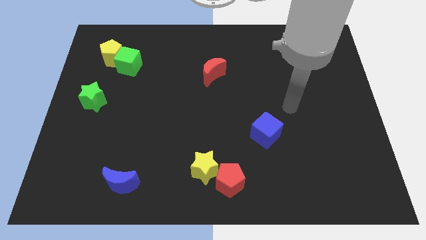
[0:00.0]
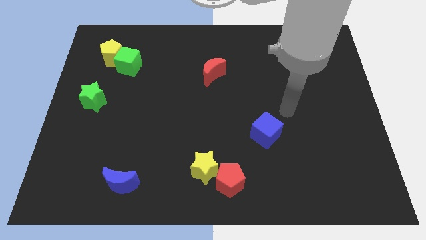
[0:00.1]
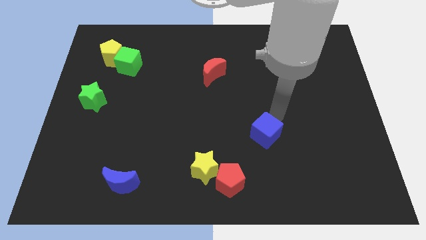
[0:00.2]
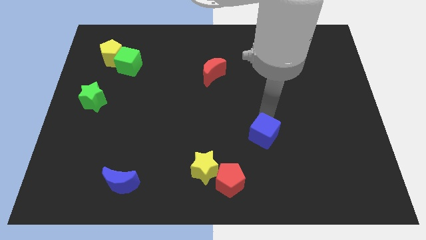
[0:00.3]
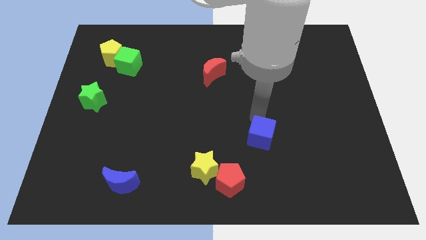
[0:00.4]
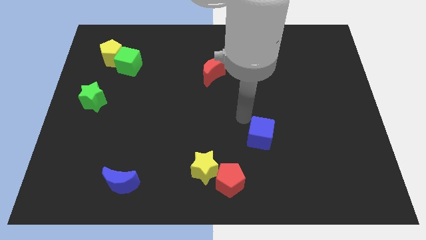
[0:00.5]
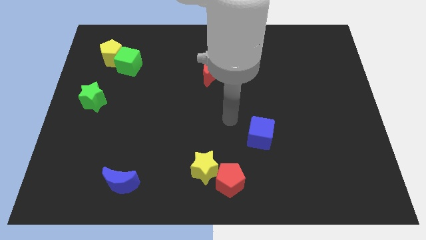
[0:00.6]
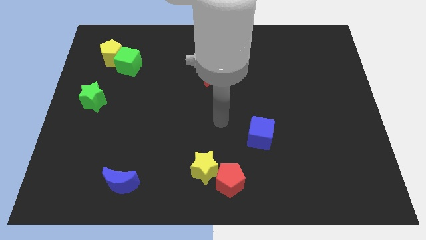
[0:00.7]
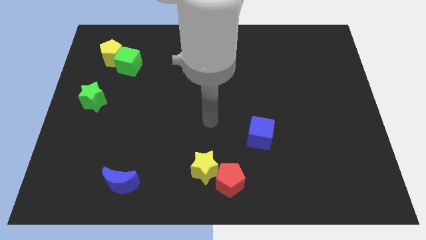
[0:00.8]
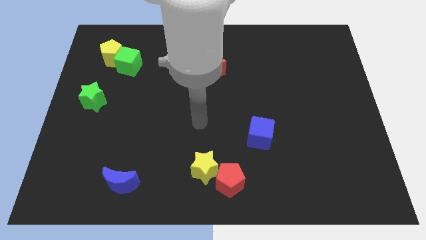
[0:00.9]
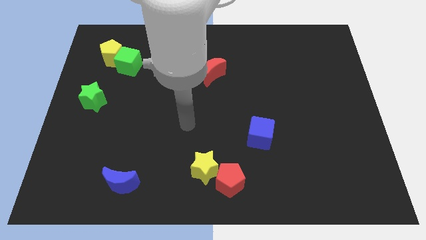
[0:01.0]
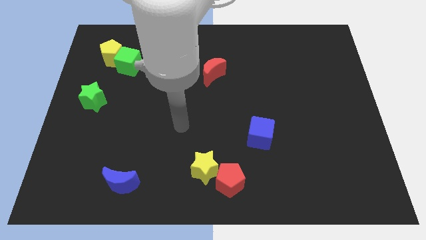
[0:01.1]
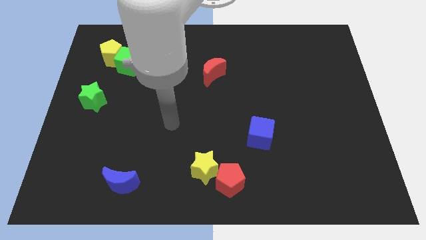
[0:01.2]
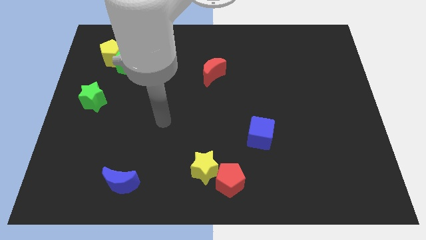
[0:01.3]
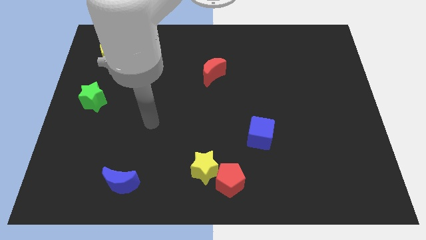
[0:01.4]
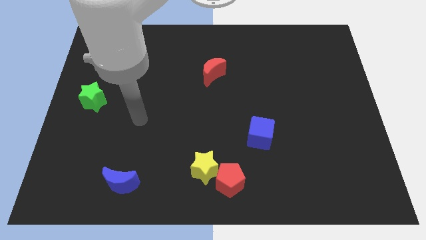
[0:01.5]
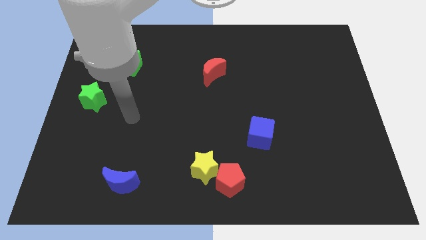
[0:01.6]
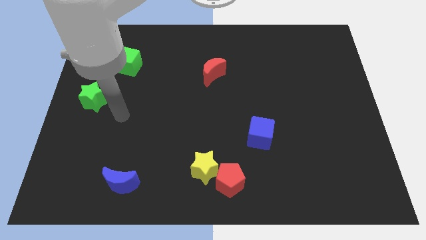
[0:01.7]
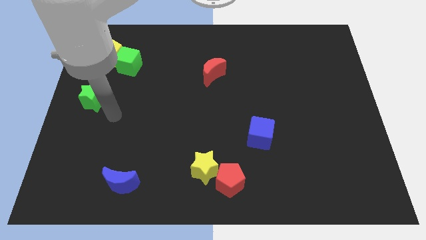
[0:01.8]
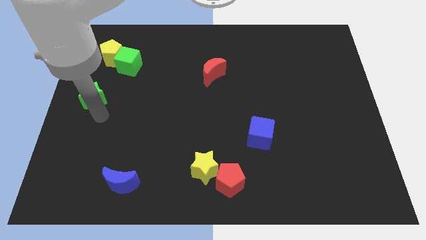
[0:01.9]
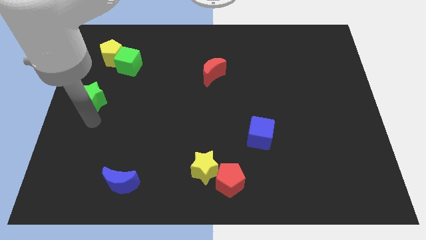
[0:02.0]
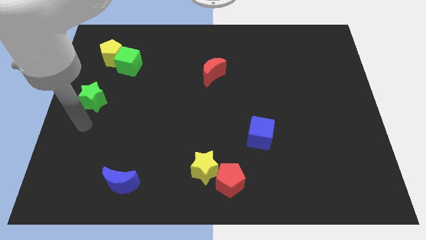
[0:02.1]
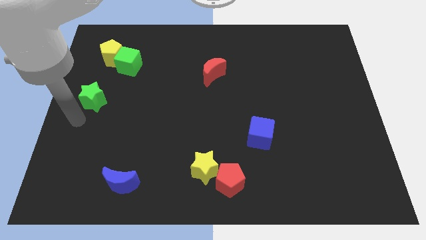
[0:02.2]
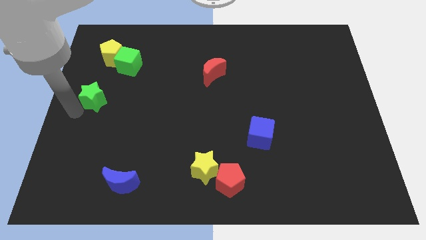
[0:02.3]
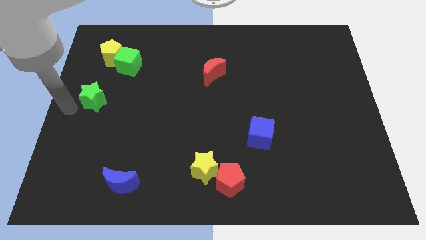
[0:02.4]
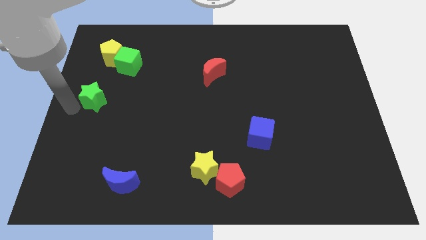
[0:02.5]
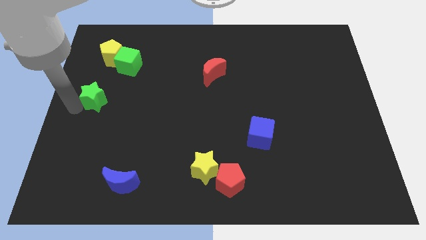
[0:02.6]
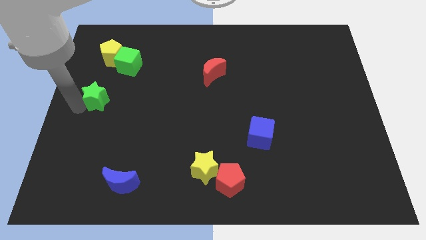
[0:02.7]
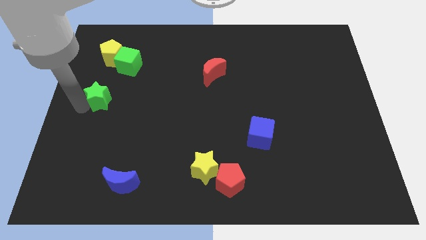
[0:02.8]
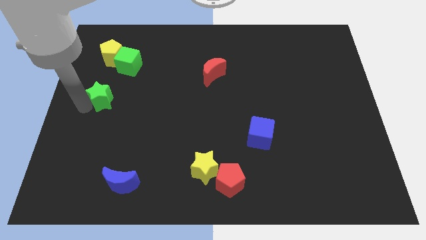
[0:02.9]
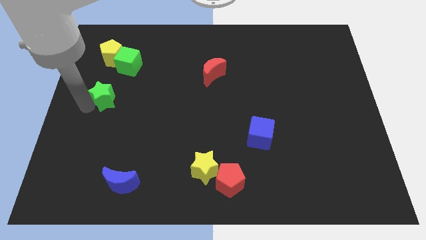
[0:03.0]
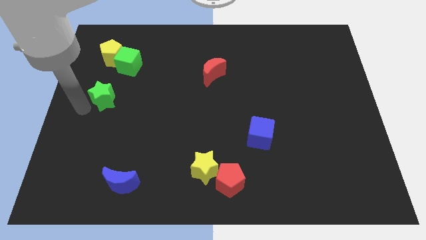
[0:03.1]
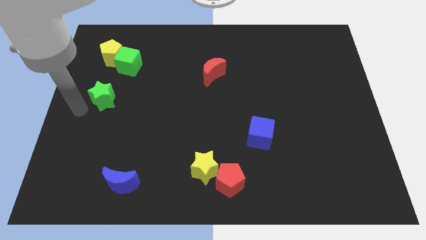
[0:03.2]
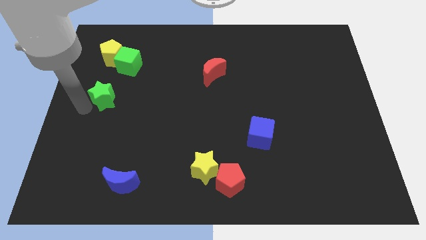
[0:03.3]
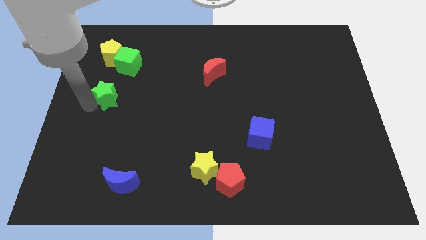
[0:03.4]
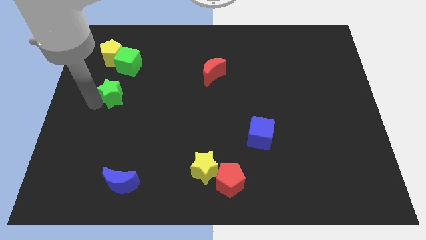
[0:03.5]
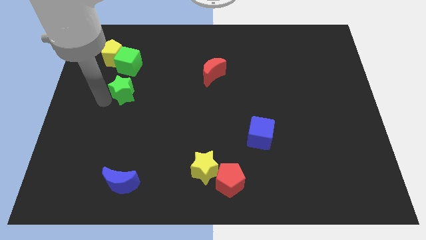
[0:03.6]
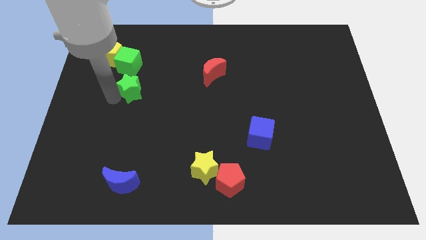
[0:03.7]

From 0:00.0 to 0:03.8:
slide the green star a little bit upwards and right diagonally

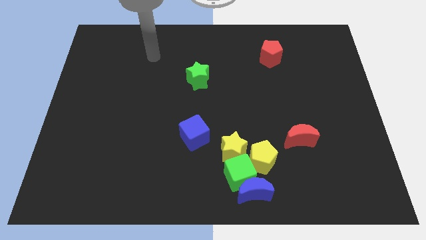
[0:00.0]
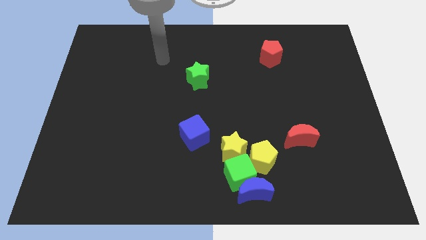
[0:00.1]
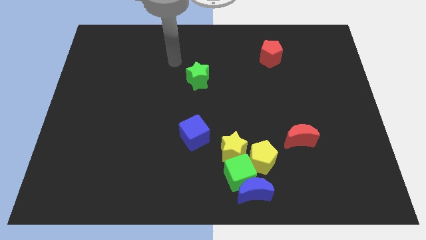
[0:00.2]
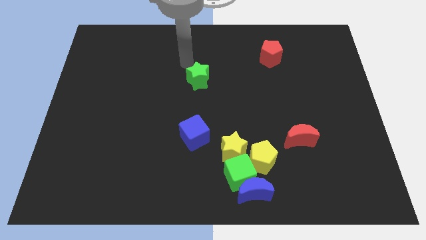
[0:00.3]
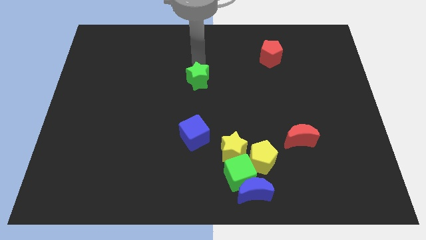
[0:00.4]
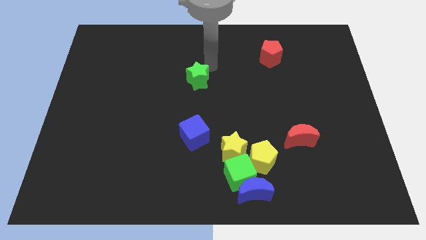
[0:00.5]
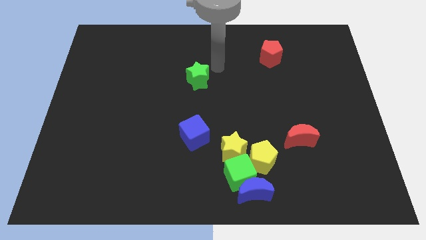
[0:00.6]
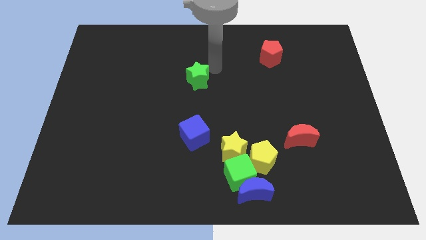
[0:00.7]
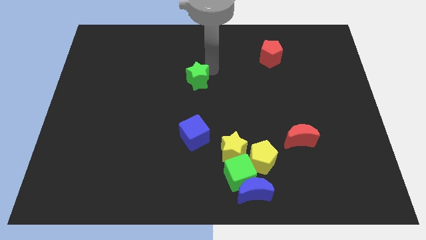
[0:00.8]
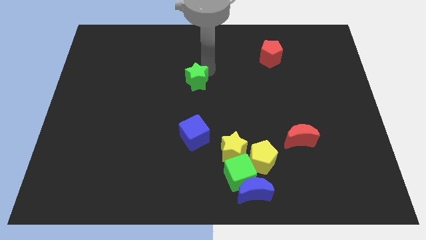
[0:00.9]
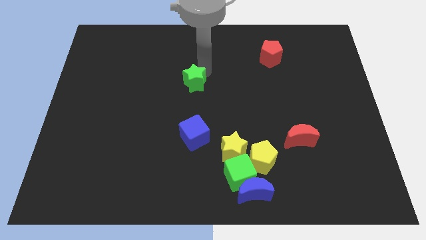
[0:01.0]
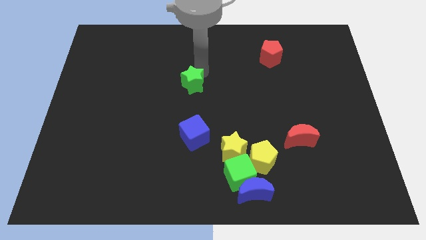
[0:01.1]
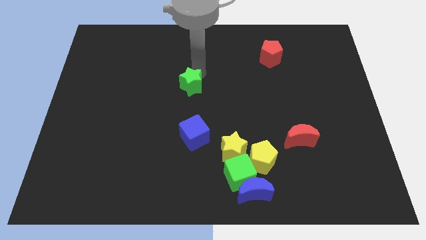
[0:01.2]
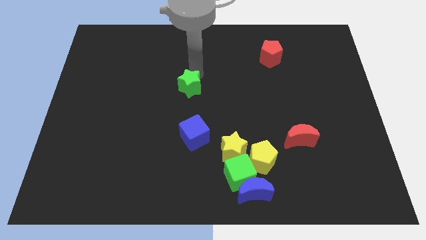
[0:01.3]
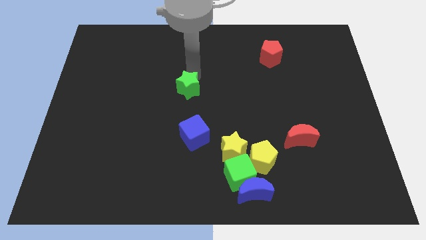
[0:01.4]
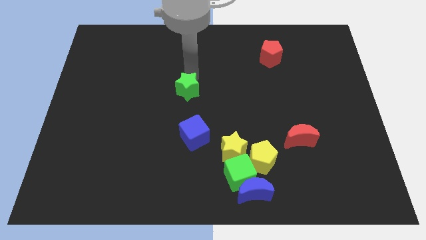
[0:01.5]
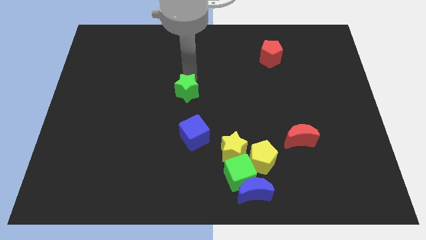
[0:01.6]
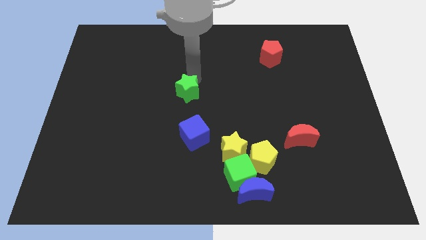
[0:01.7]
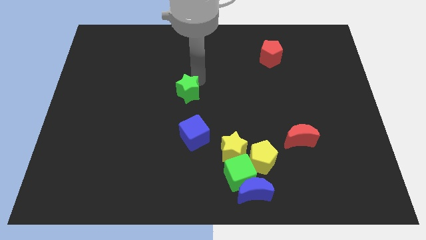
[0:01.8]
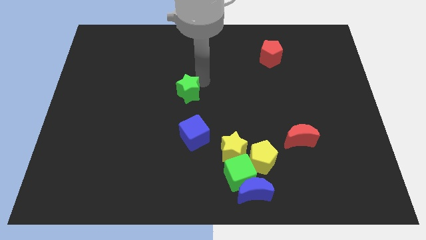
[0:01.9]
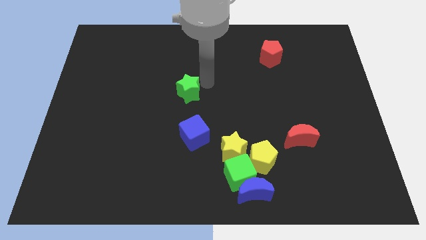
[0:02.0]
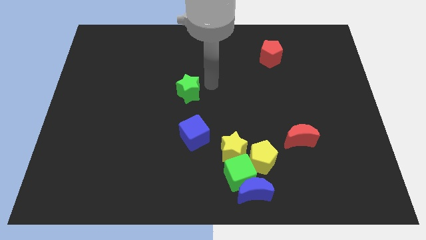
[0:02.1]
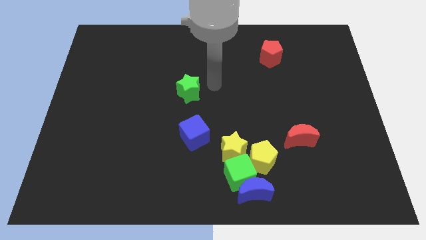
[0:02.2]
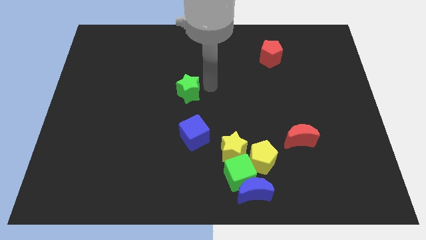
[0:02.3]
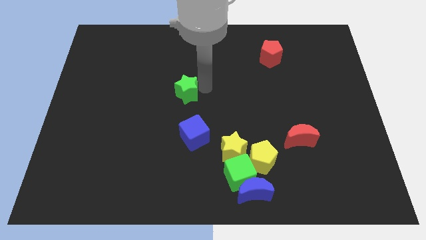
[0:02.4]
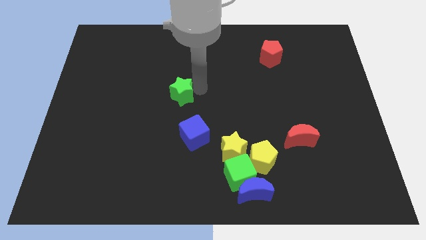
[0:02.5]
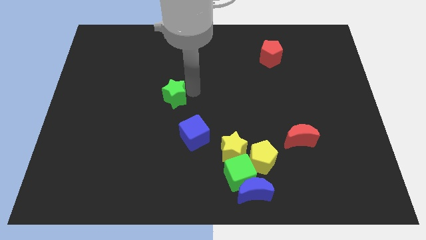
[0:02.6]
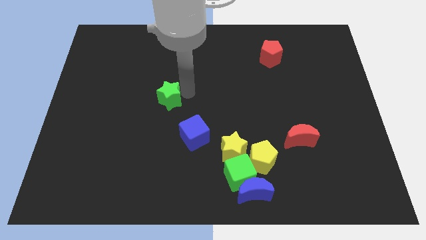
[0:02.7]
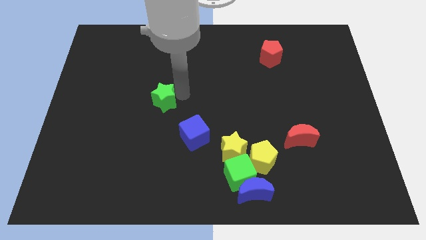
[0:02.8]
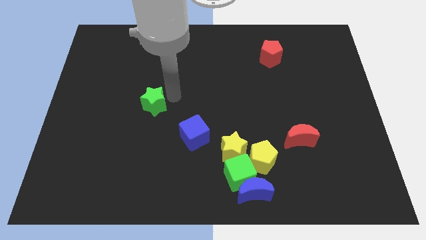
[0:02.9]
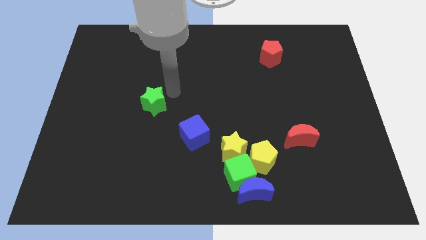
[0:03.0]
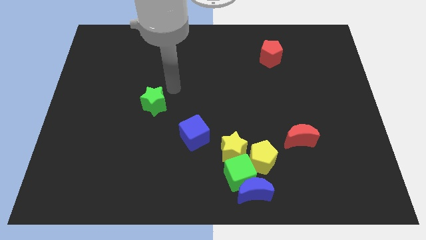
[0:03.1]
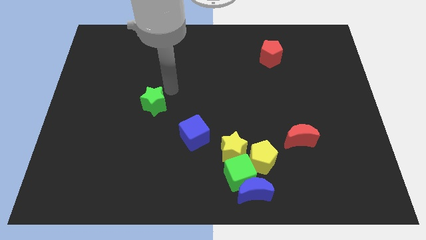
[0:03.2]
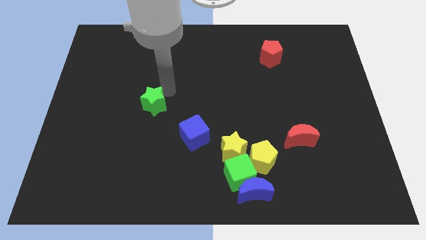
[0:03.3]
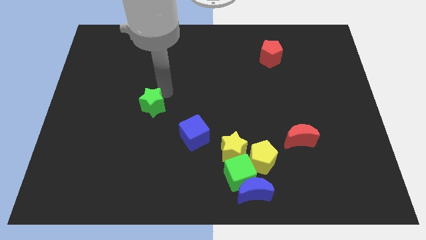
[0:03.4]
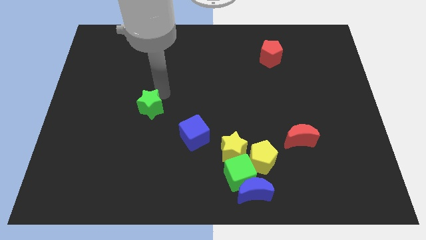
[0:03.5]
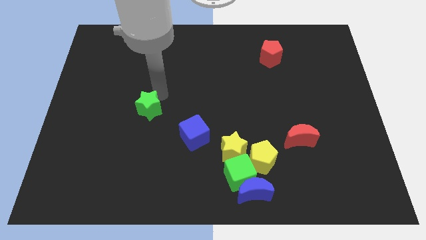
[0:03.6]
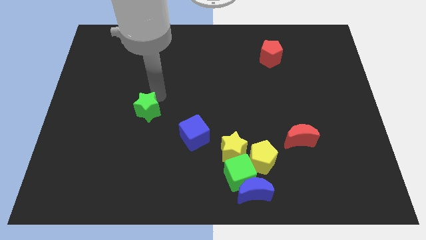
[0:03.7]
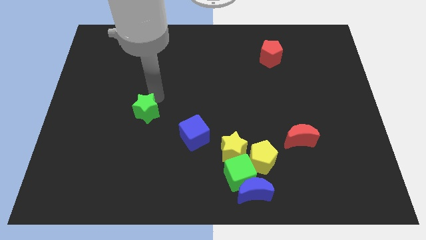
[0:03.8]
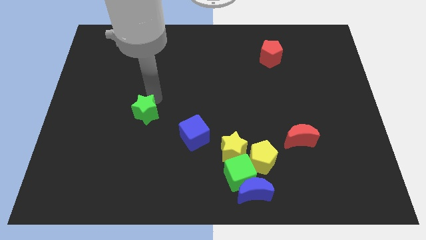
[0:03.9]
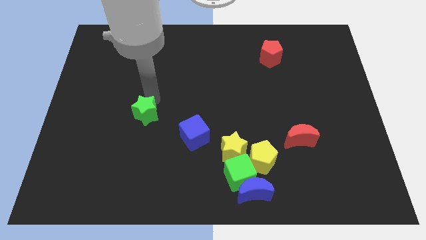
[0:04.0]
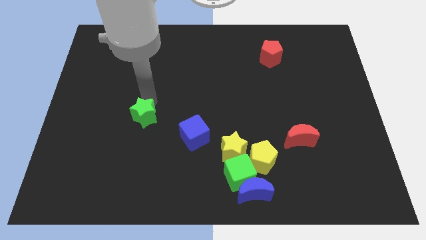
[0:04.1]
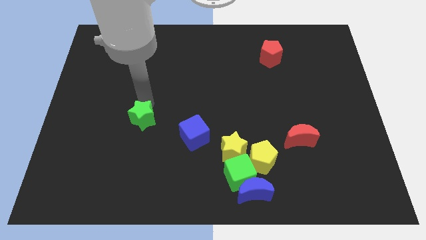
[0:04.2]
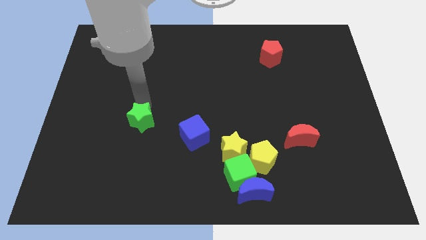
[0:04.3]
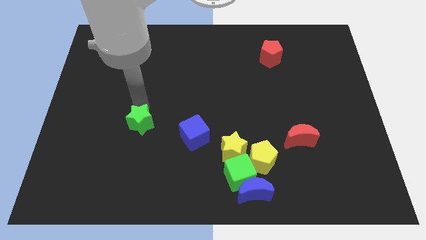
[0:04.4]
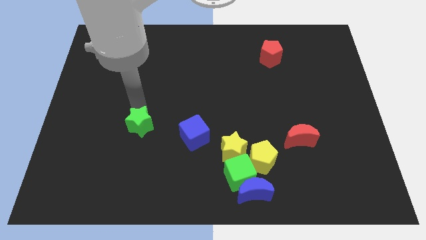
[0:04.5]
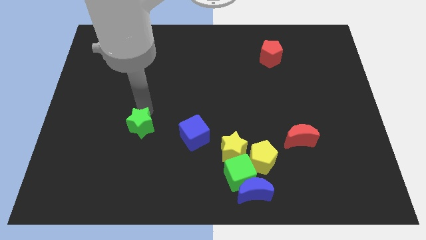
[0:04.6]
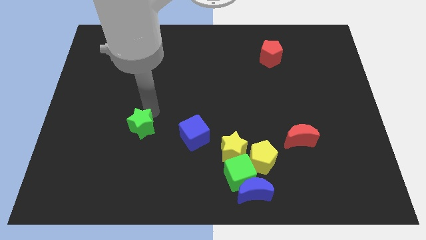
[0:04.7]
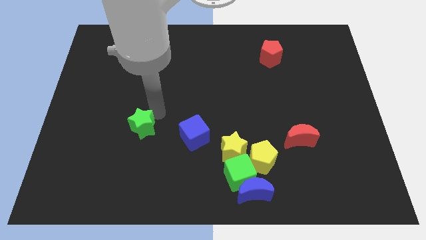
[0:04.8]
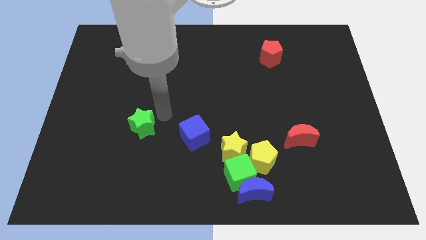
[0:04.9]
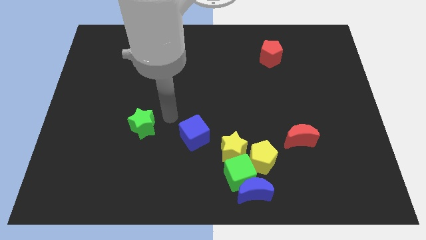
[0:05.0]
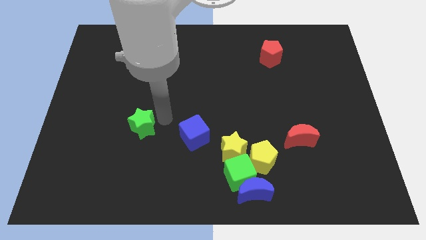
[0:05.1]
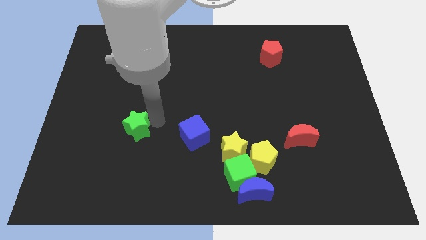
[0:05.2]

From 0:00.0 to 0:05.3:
slide the green star downwards and then to the left
